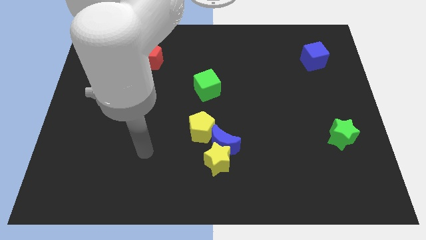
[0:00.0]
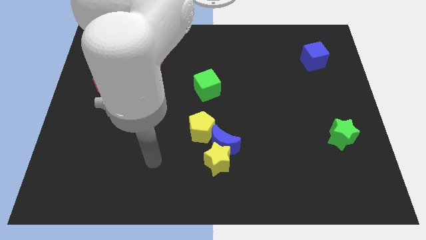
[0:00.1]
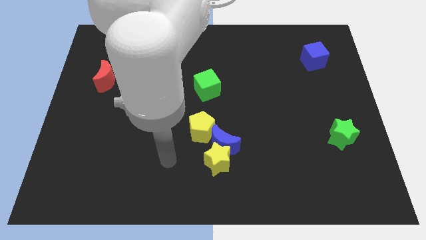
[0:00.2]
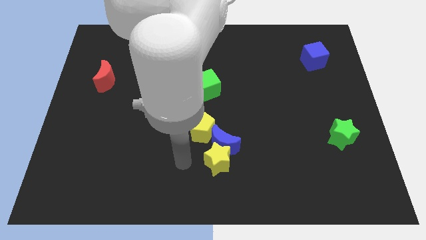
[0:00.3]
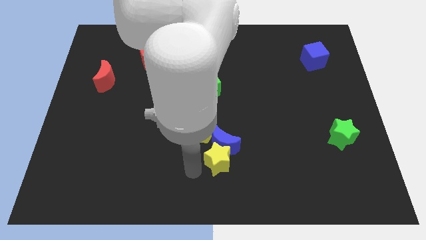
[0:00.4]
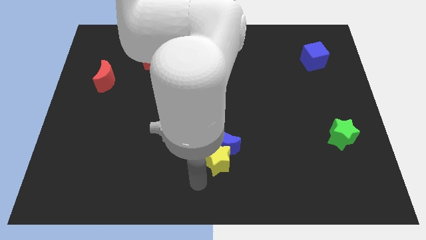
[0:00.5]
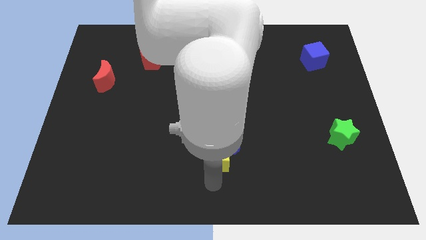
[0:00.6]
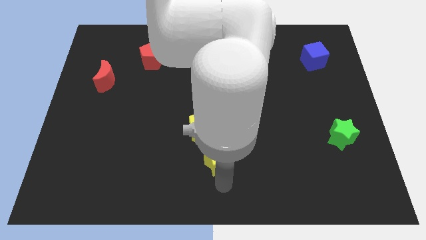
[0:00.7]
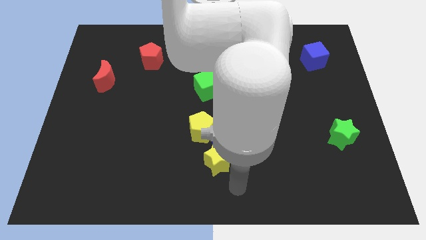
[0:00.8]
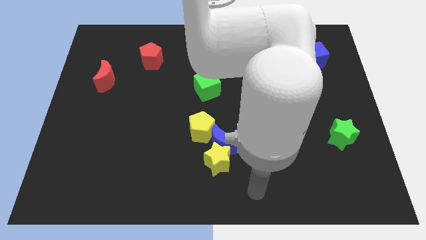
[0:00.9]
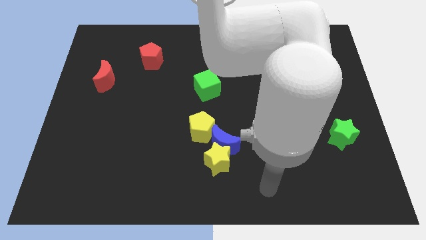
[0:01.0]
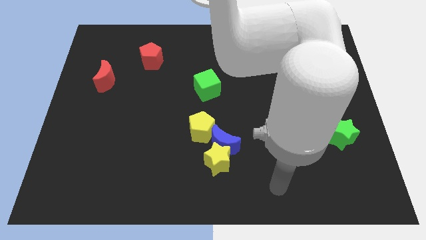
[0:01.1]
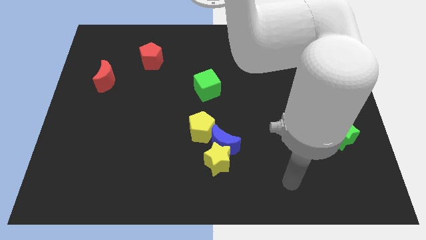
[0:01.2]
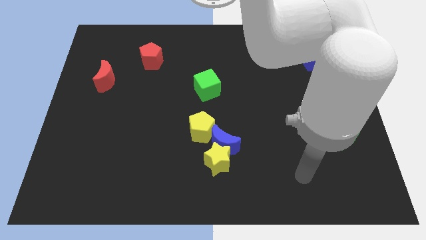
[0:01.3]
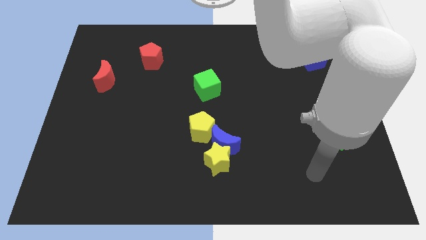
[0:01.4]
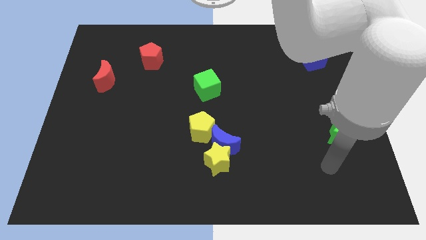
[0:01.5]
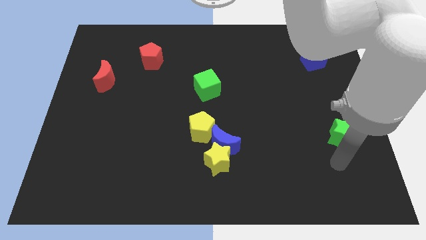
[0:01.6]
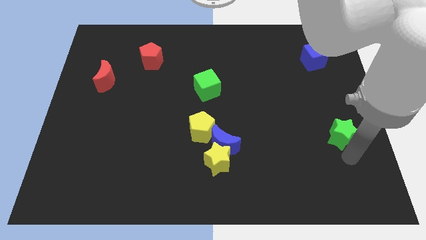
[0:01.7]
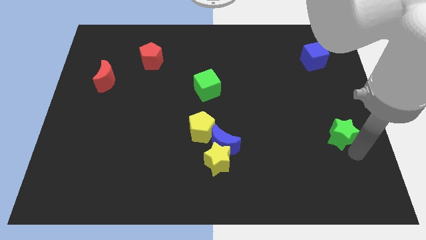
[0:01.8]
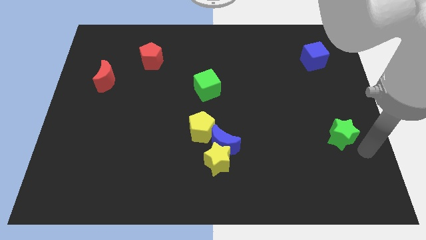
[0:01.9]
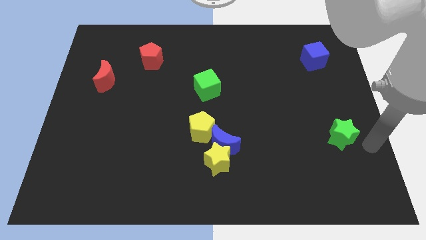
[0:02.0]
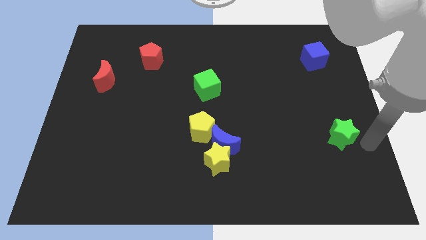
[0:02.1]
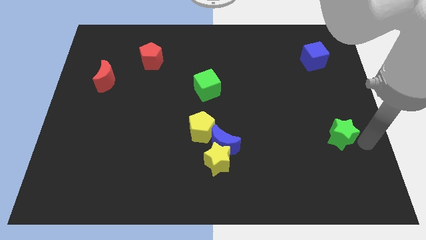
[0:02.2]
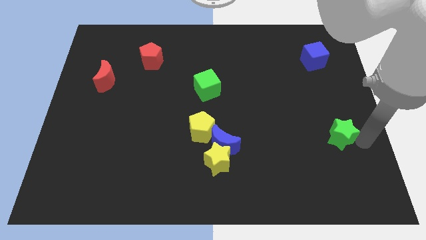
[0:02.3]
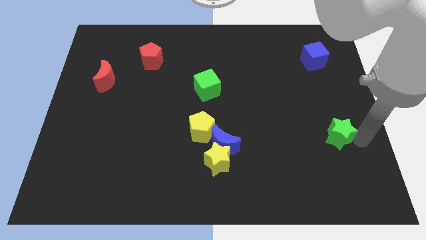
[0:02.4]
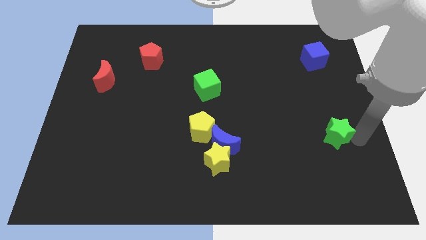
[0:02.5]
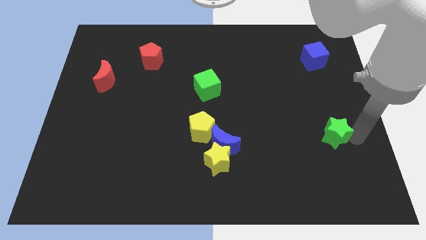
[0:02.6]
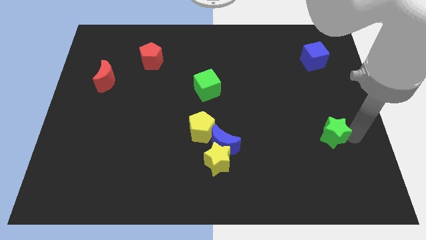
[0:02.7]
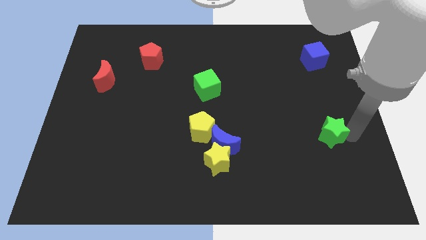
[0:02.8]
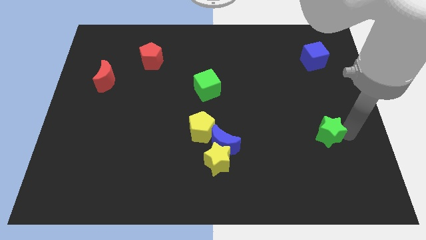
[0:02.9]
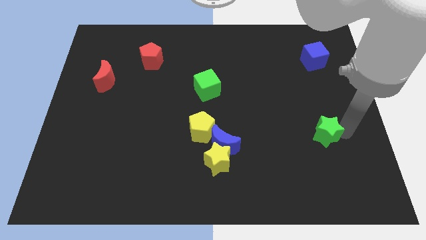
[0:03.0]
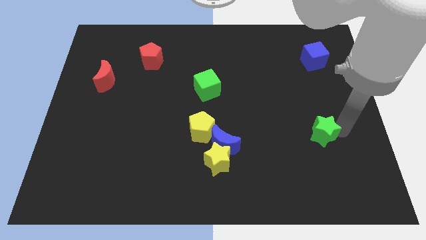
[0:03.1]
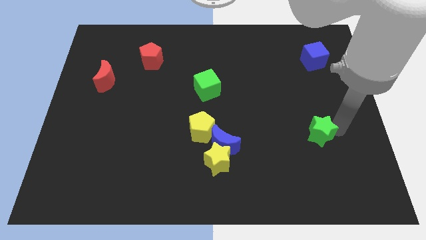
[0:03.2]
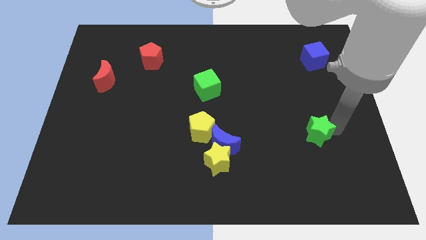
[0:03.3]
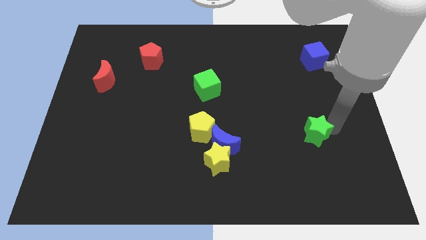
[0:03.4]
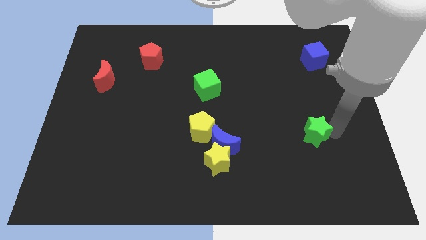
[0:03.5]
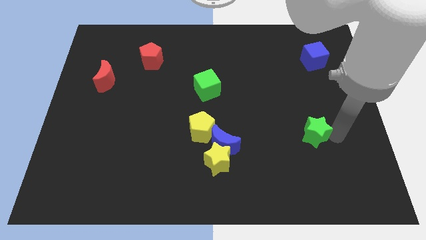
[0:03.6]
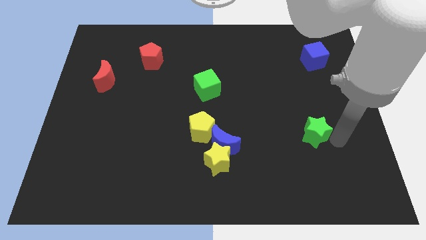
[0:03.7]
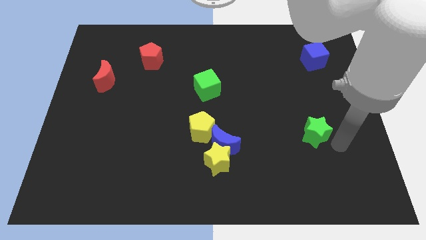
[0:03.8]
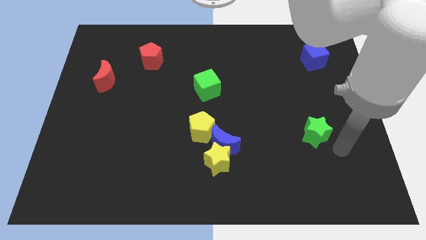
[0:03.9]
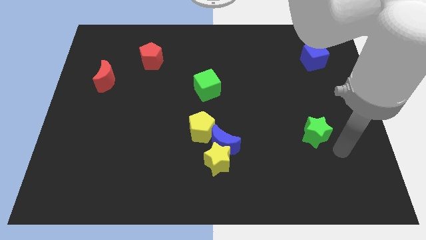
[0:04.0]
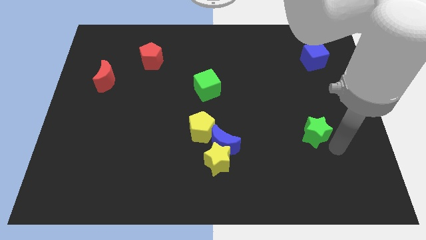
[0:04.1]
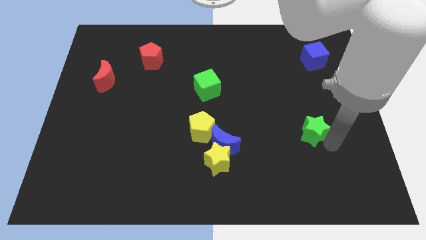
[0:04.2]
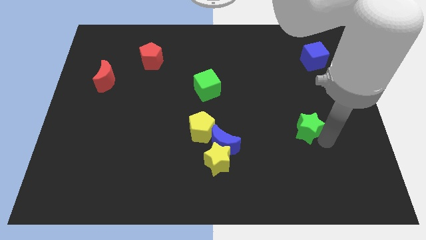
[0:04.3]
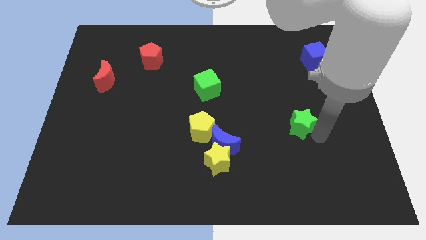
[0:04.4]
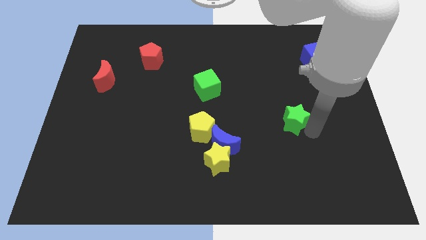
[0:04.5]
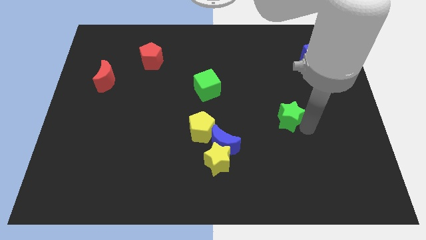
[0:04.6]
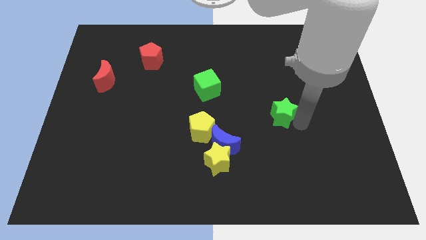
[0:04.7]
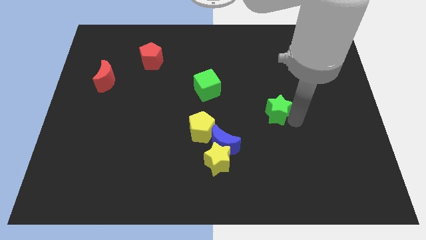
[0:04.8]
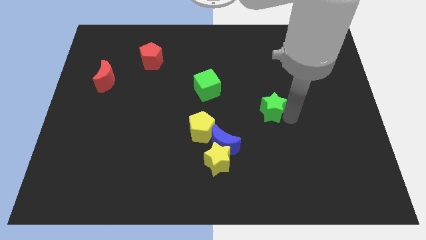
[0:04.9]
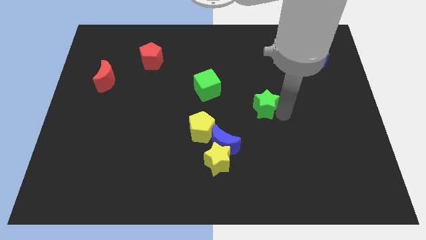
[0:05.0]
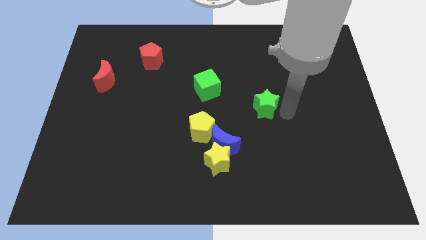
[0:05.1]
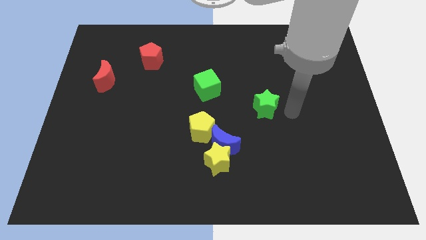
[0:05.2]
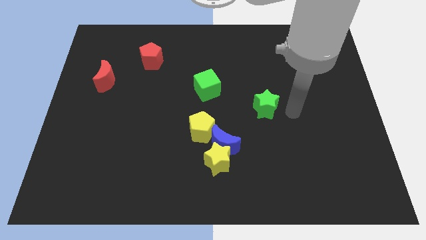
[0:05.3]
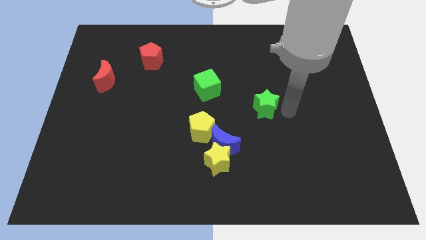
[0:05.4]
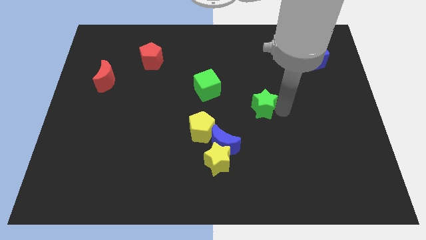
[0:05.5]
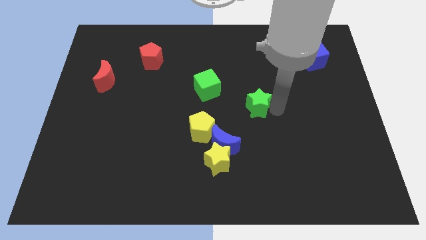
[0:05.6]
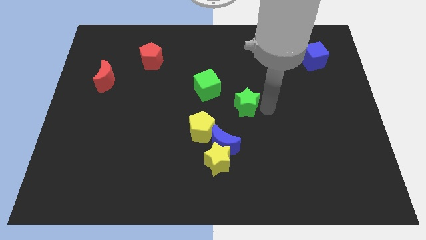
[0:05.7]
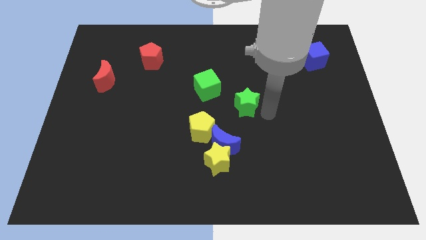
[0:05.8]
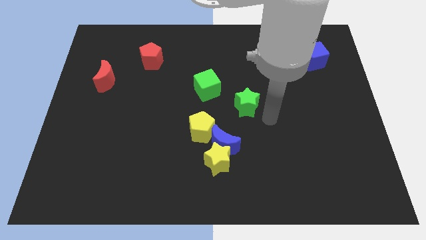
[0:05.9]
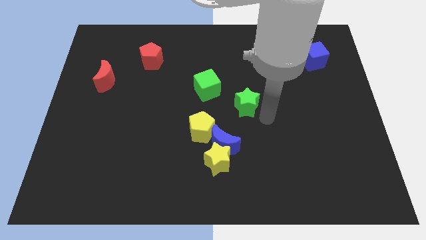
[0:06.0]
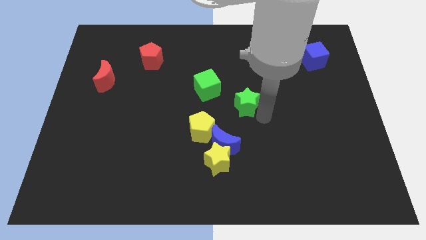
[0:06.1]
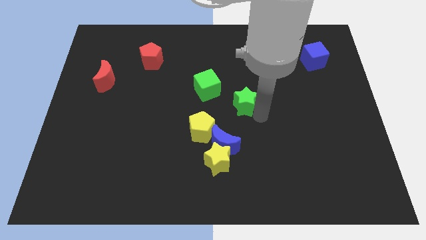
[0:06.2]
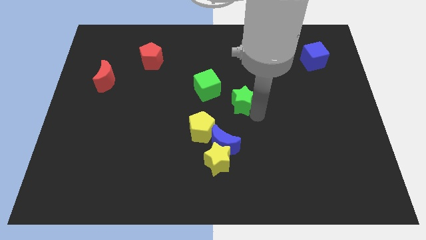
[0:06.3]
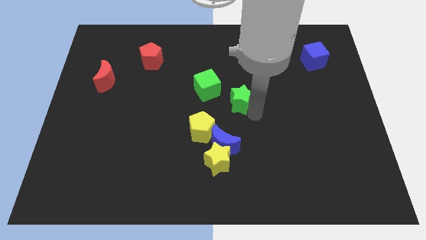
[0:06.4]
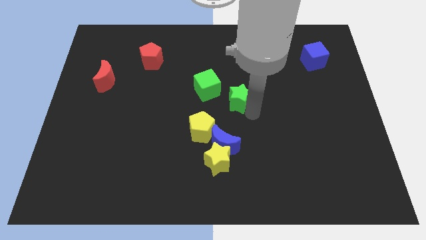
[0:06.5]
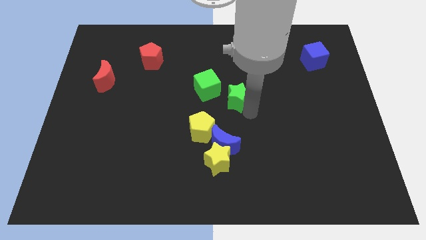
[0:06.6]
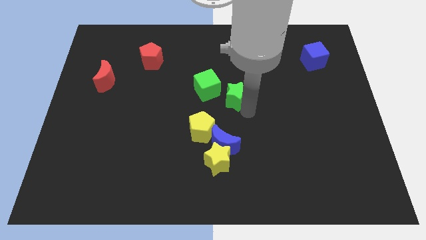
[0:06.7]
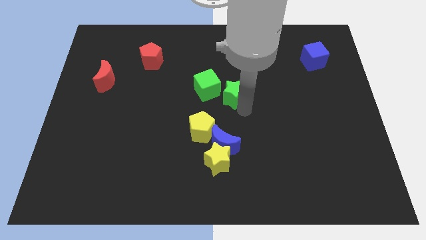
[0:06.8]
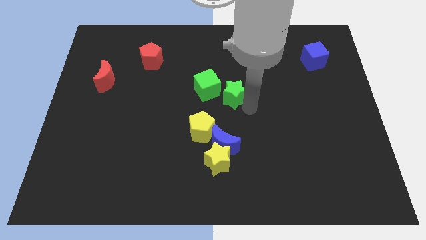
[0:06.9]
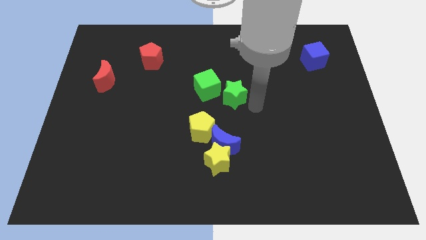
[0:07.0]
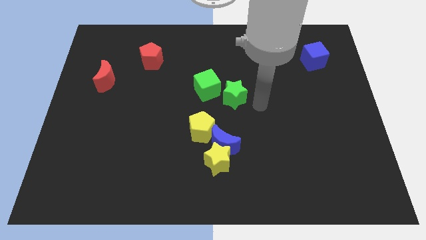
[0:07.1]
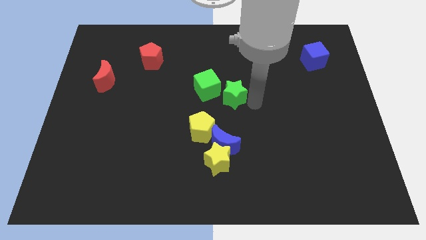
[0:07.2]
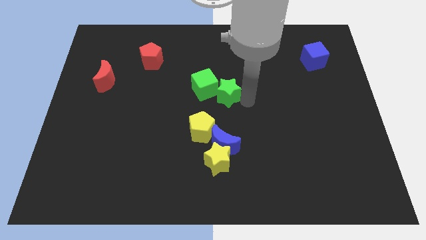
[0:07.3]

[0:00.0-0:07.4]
slide the green star to the green cube
